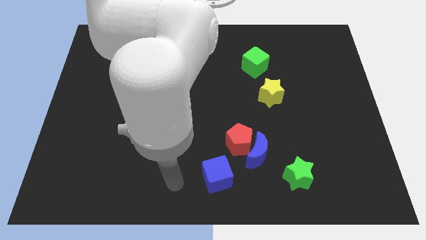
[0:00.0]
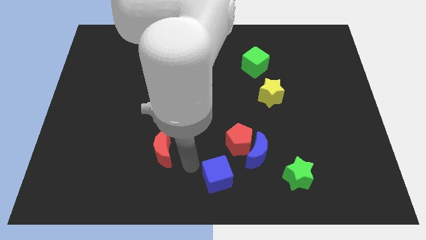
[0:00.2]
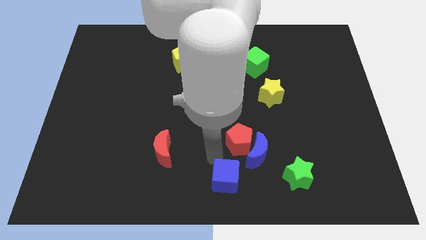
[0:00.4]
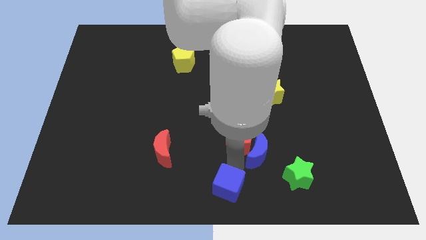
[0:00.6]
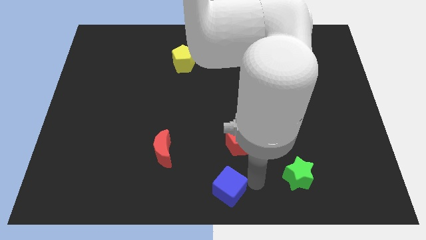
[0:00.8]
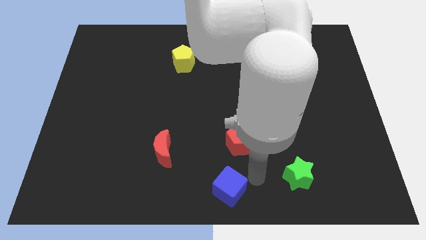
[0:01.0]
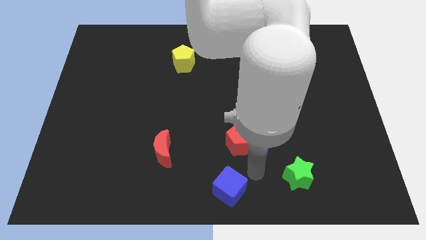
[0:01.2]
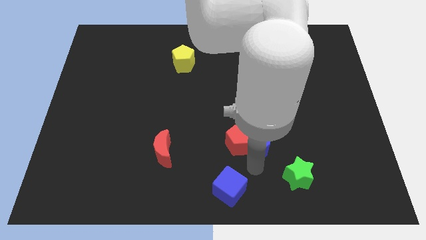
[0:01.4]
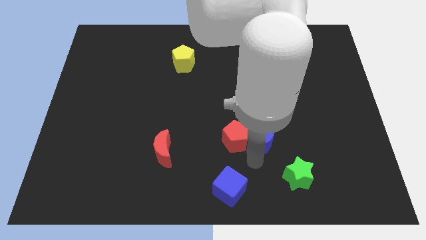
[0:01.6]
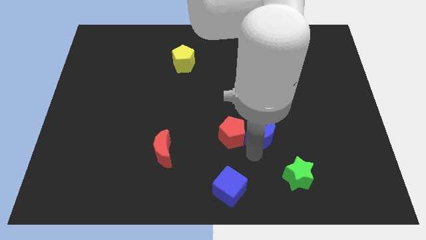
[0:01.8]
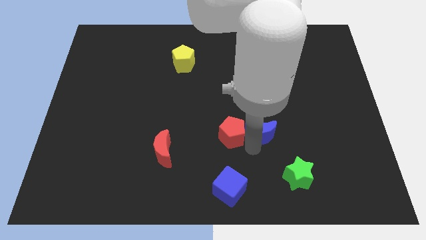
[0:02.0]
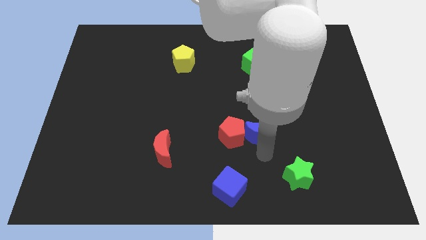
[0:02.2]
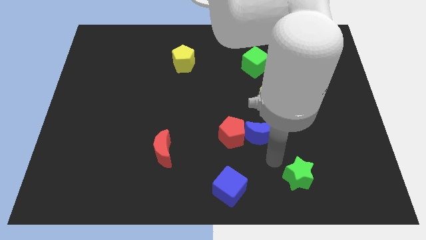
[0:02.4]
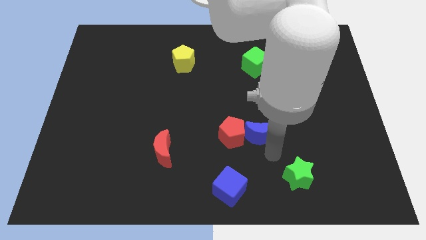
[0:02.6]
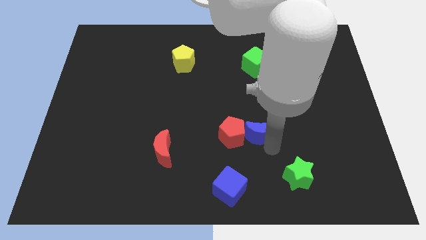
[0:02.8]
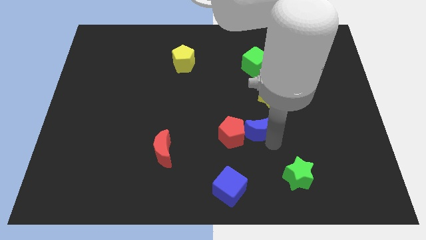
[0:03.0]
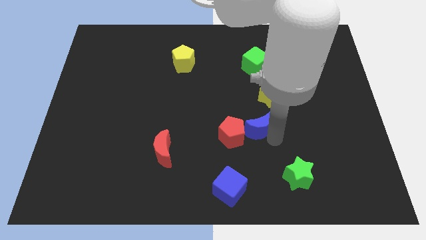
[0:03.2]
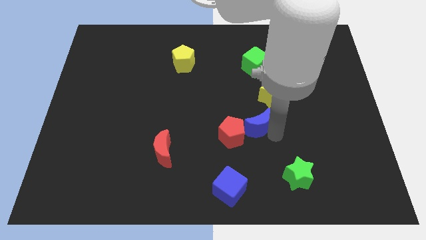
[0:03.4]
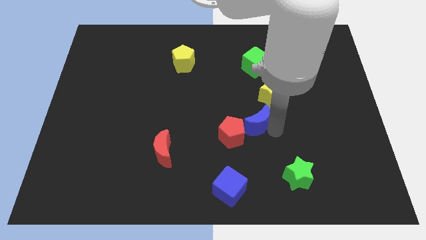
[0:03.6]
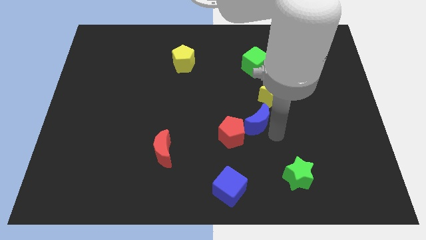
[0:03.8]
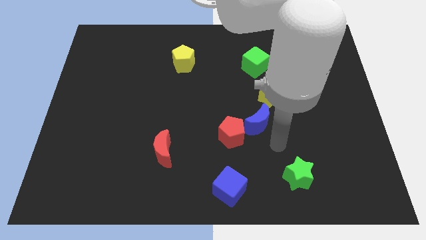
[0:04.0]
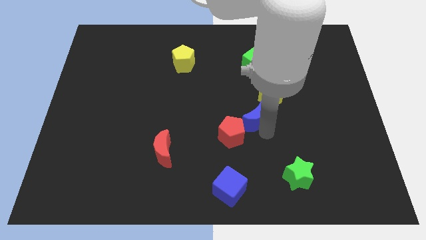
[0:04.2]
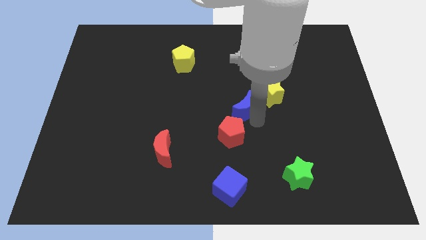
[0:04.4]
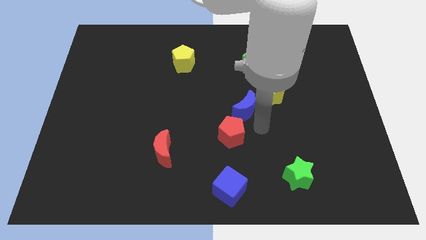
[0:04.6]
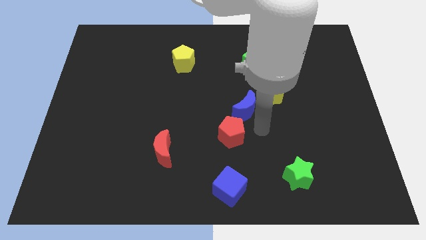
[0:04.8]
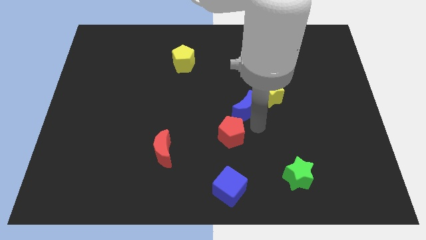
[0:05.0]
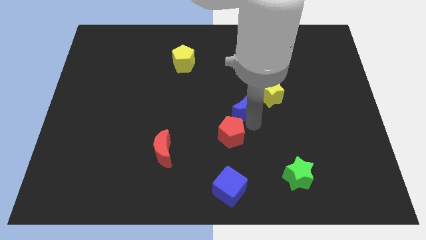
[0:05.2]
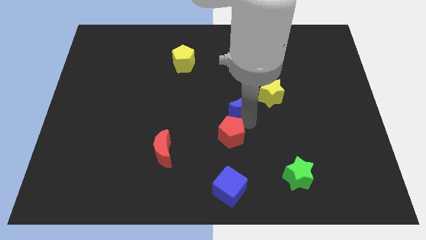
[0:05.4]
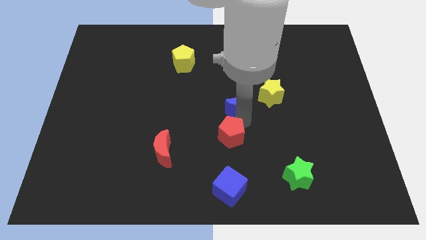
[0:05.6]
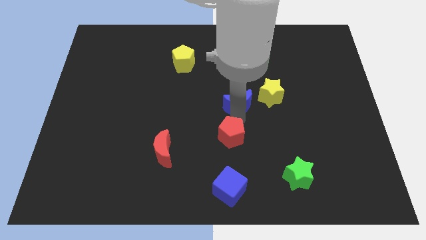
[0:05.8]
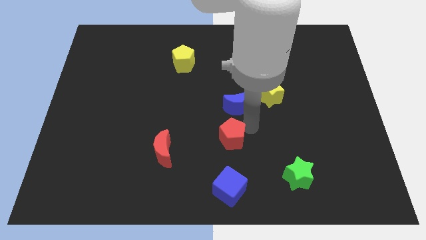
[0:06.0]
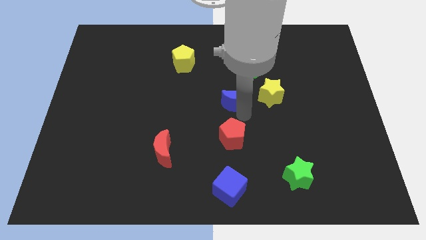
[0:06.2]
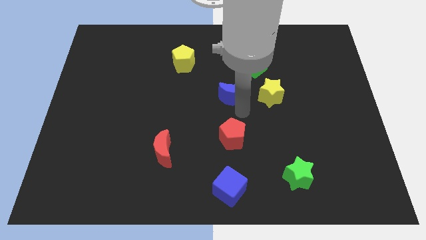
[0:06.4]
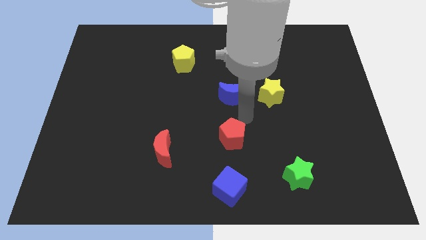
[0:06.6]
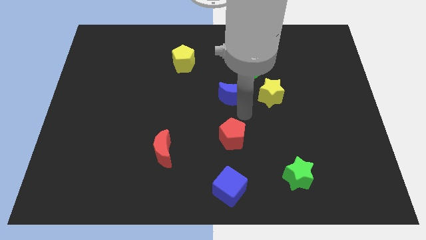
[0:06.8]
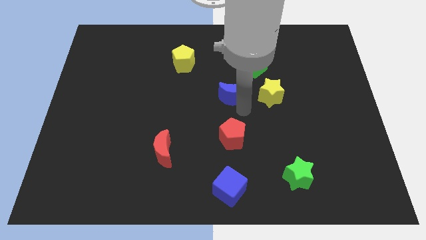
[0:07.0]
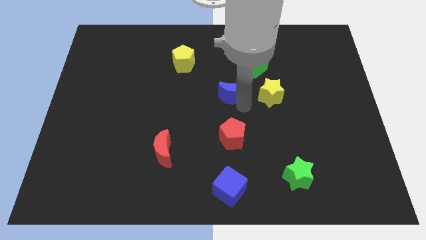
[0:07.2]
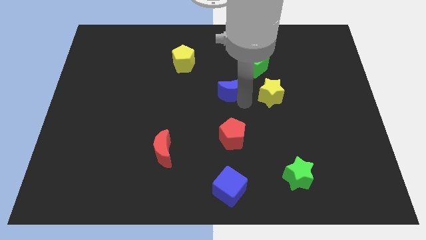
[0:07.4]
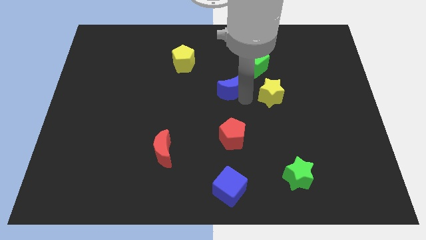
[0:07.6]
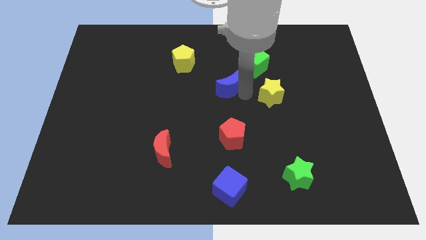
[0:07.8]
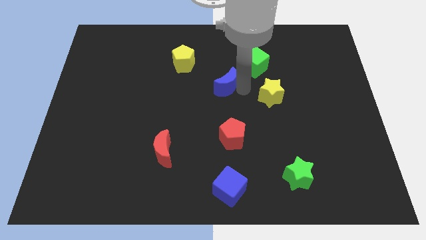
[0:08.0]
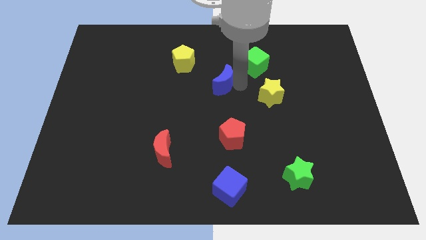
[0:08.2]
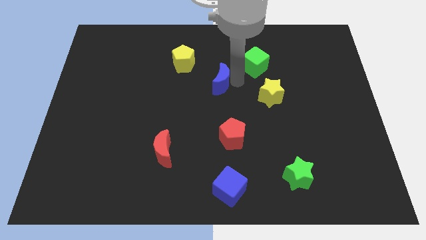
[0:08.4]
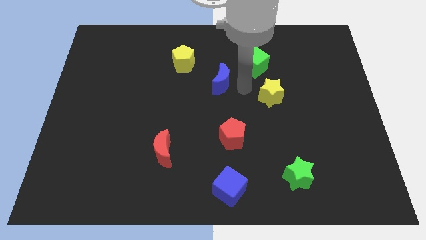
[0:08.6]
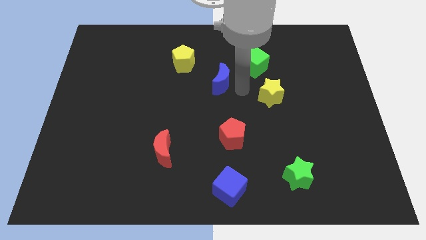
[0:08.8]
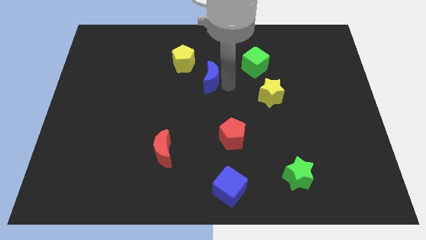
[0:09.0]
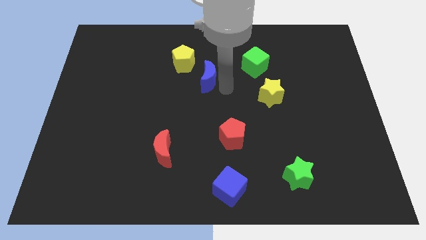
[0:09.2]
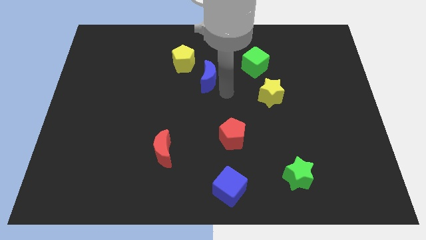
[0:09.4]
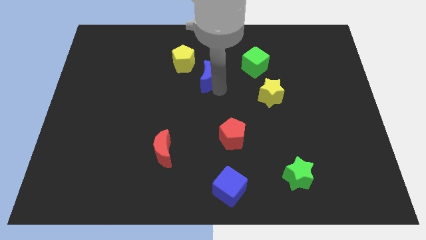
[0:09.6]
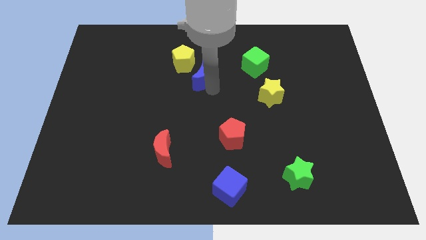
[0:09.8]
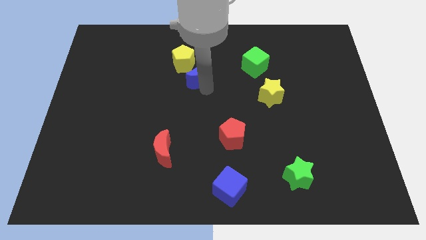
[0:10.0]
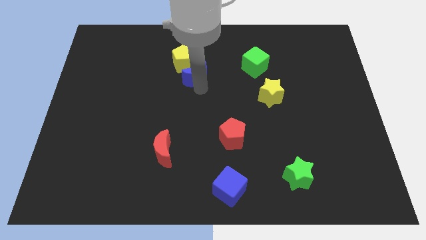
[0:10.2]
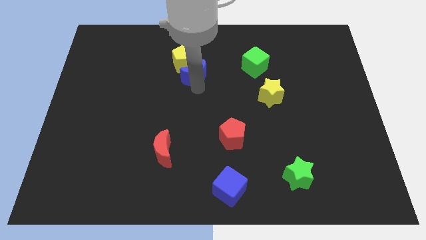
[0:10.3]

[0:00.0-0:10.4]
slide the blue moon towards the yellow pentagon

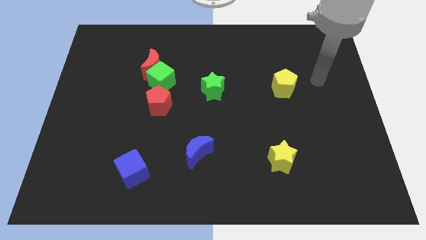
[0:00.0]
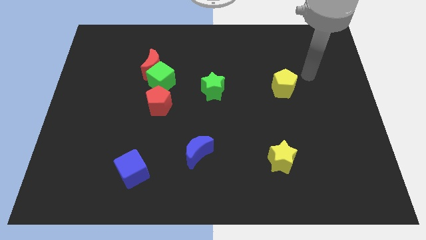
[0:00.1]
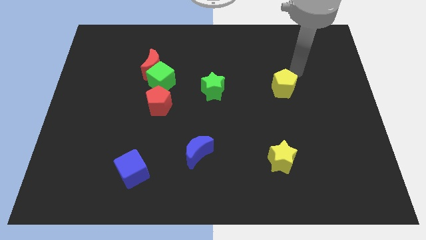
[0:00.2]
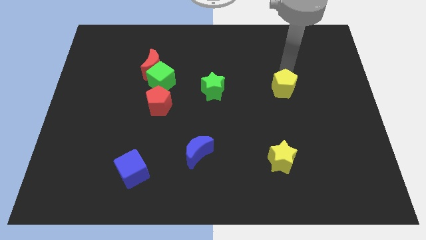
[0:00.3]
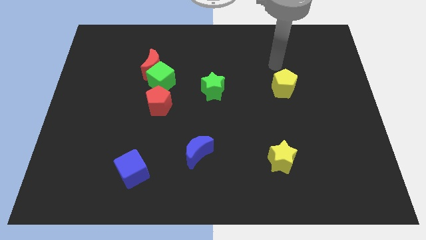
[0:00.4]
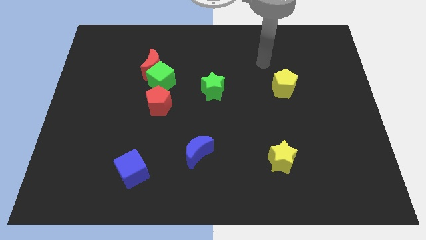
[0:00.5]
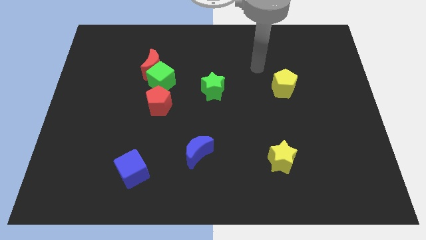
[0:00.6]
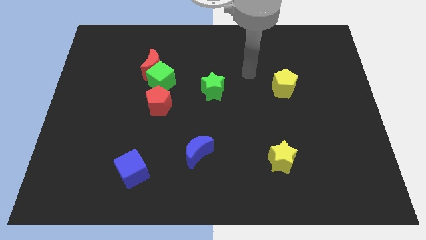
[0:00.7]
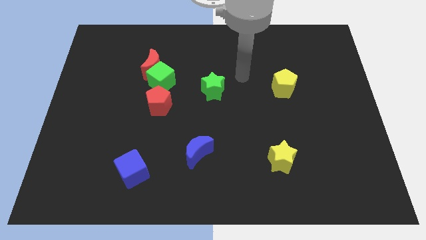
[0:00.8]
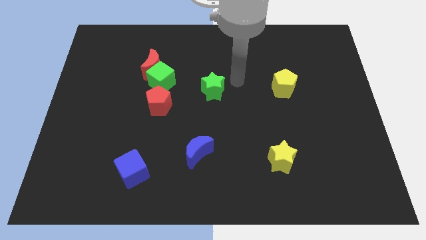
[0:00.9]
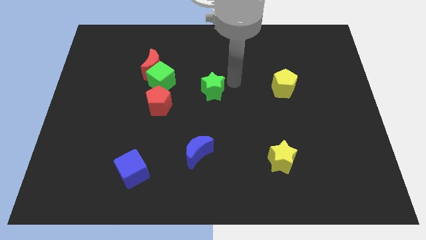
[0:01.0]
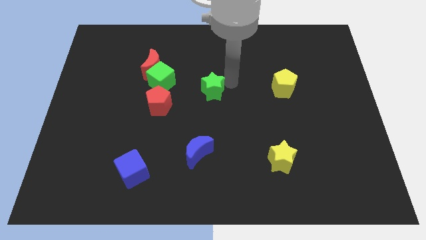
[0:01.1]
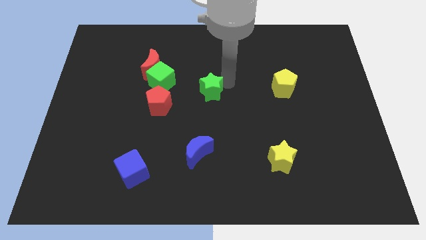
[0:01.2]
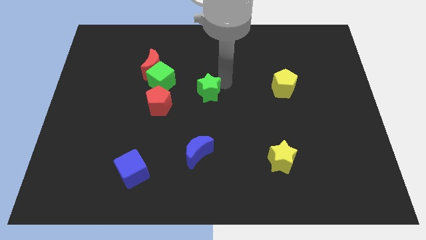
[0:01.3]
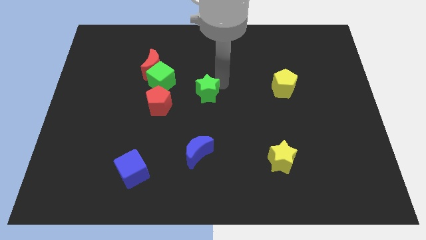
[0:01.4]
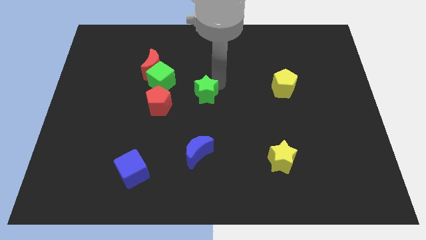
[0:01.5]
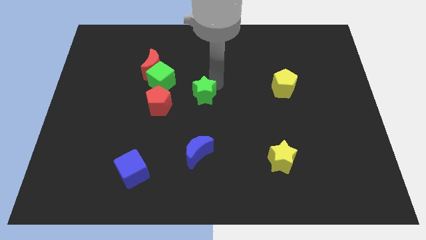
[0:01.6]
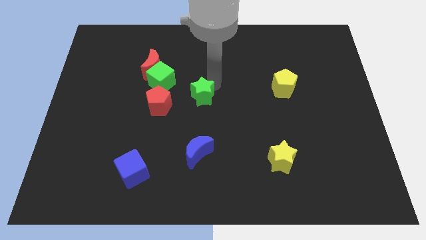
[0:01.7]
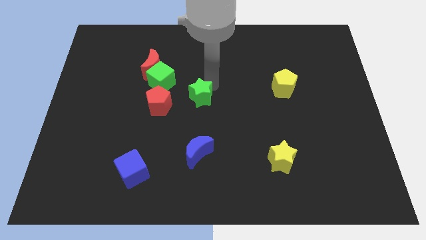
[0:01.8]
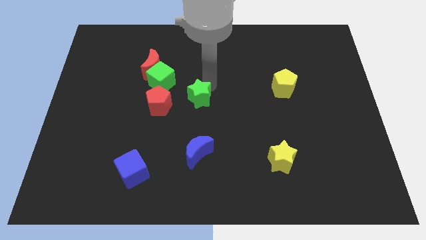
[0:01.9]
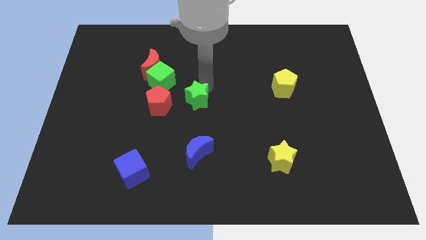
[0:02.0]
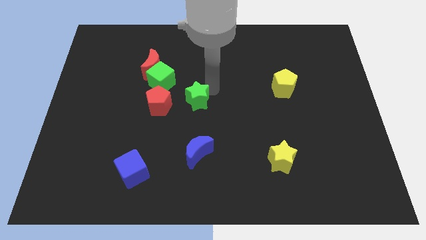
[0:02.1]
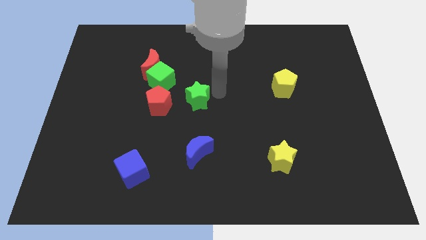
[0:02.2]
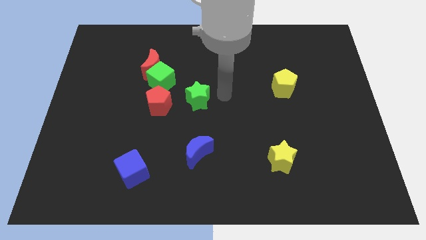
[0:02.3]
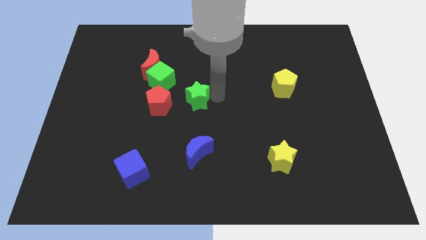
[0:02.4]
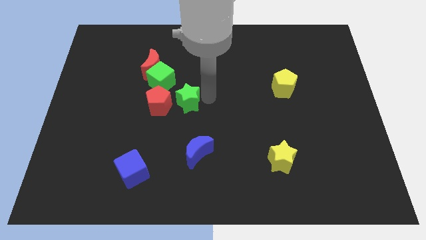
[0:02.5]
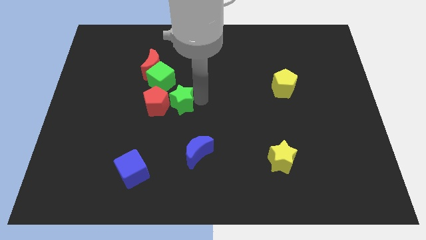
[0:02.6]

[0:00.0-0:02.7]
slide the green star next to the red pentagon
